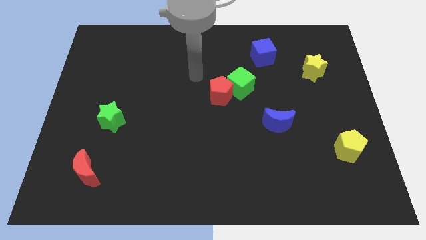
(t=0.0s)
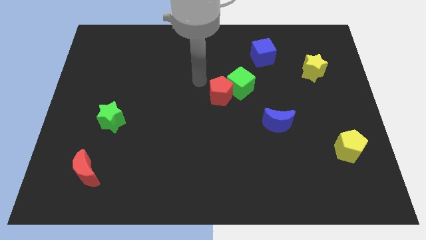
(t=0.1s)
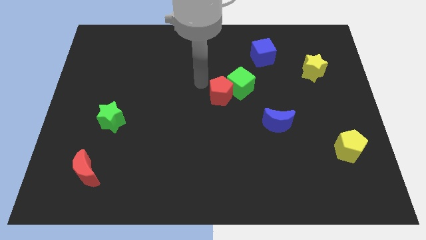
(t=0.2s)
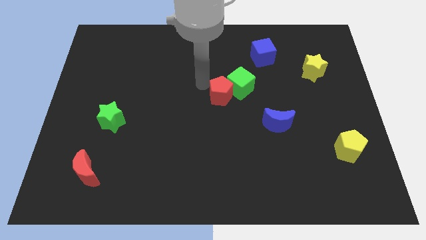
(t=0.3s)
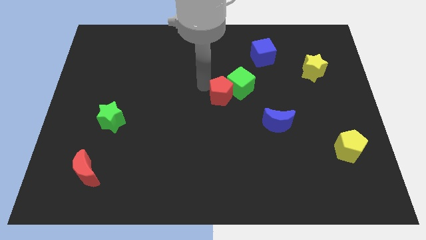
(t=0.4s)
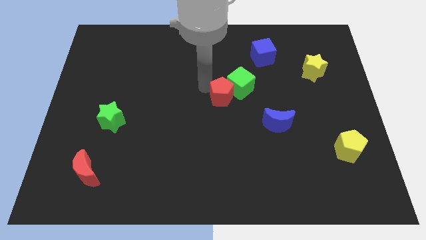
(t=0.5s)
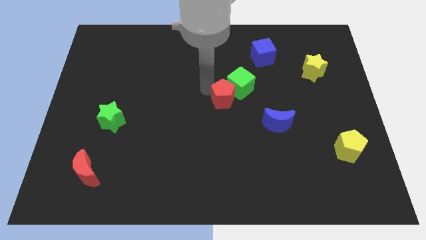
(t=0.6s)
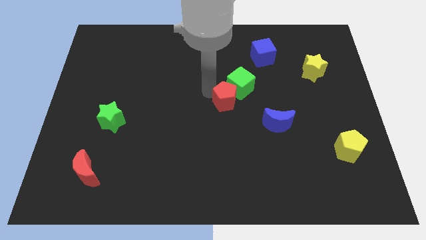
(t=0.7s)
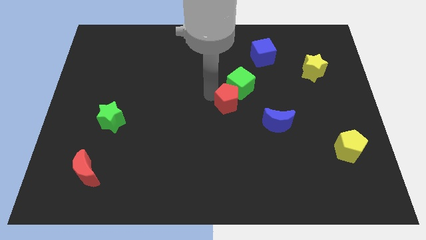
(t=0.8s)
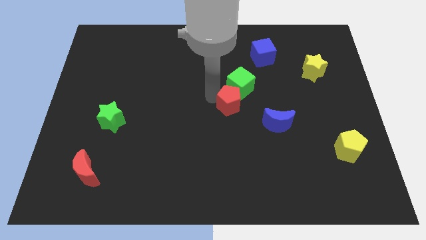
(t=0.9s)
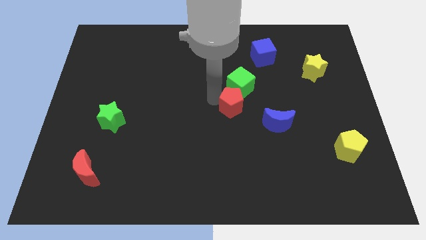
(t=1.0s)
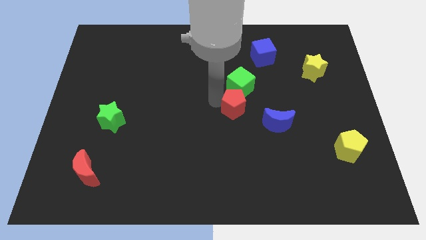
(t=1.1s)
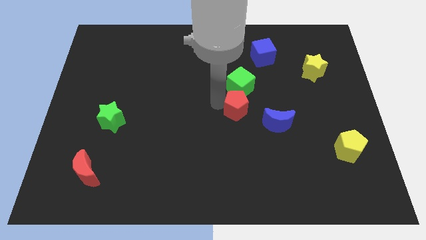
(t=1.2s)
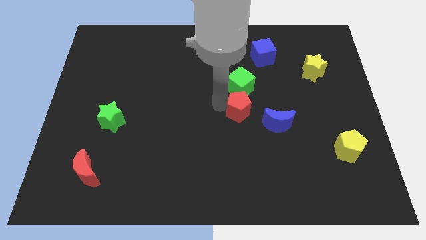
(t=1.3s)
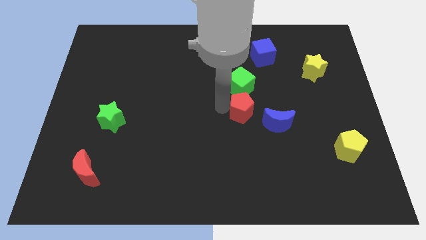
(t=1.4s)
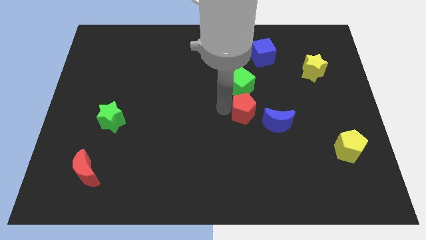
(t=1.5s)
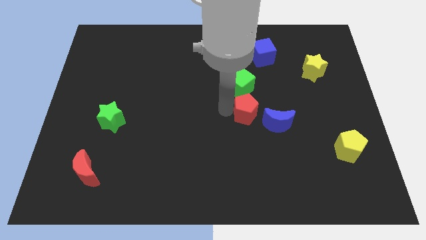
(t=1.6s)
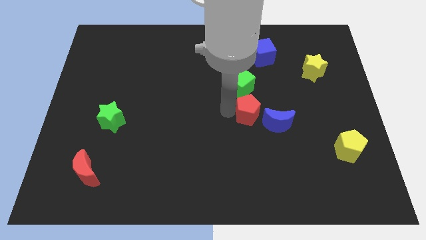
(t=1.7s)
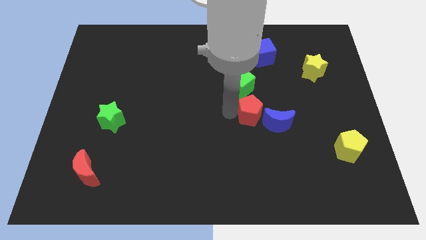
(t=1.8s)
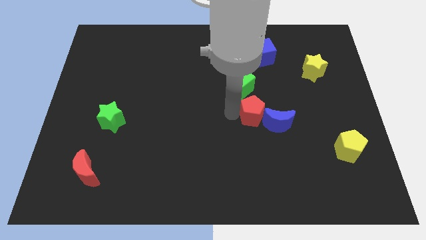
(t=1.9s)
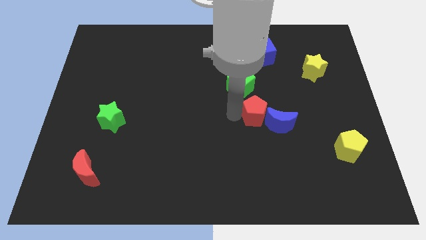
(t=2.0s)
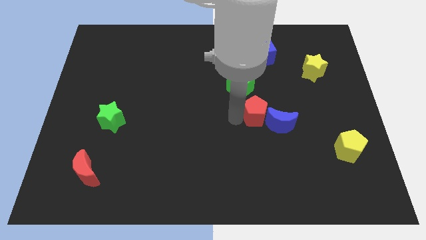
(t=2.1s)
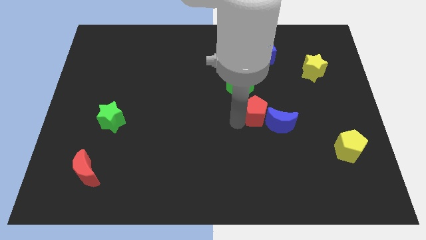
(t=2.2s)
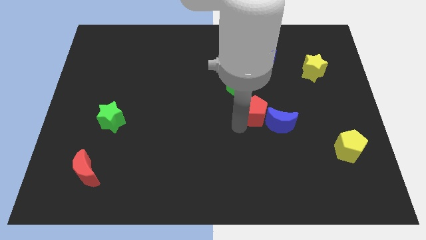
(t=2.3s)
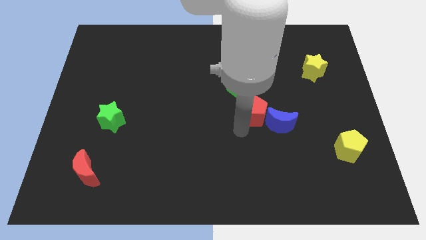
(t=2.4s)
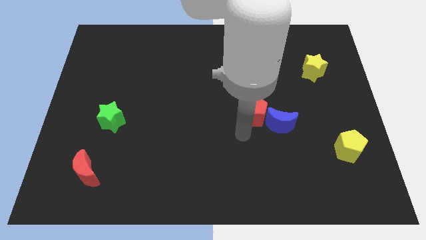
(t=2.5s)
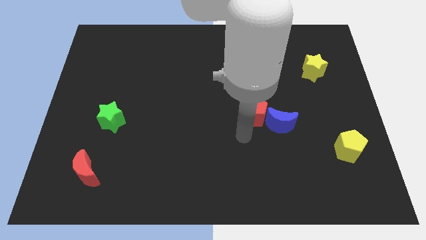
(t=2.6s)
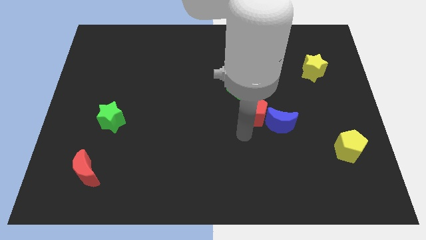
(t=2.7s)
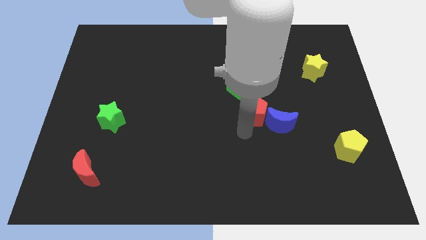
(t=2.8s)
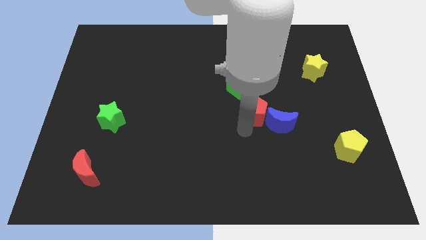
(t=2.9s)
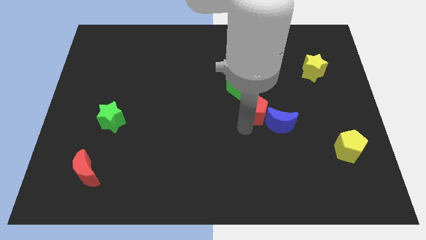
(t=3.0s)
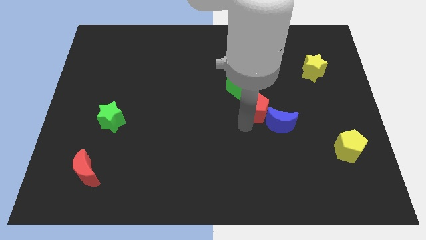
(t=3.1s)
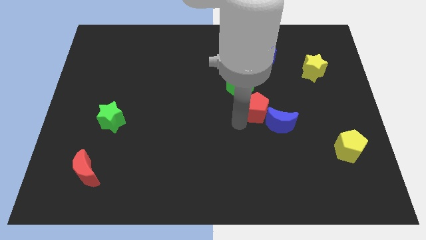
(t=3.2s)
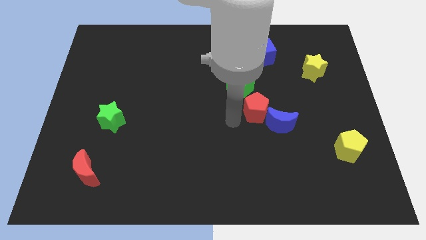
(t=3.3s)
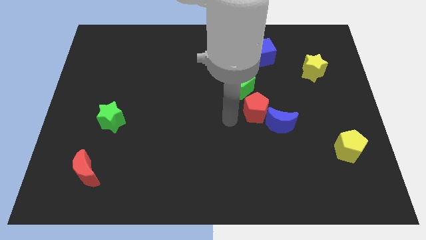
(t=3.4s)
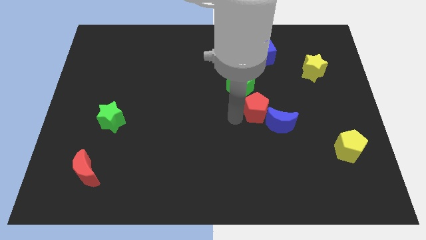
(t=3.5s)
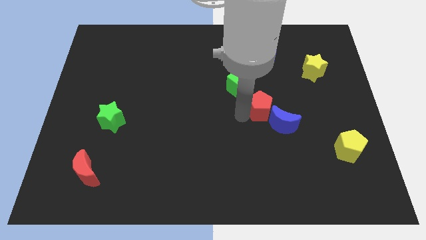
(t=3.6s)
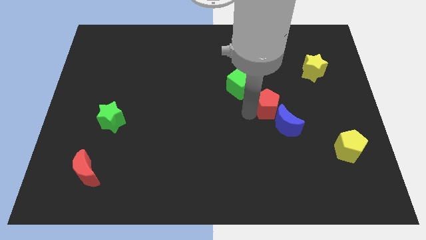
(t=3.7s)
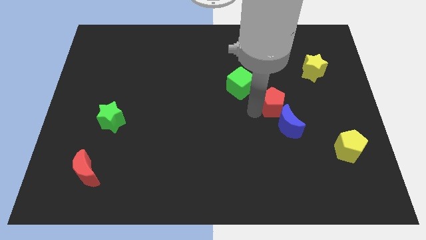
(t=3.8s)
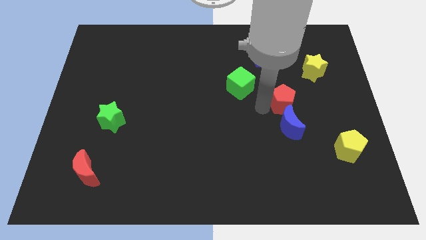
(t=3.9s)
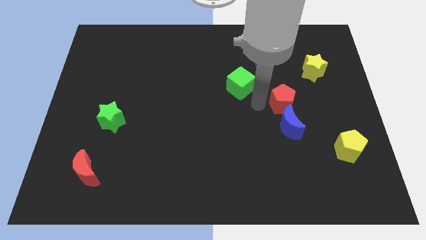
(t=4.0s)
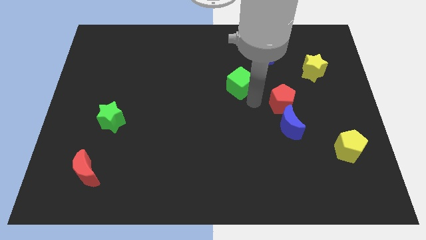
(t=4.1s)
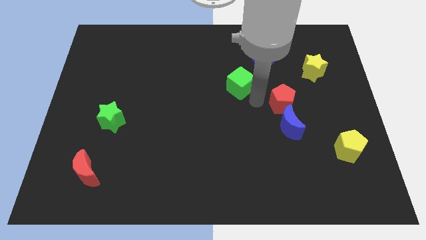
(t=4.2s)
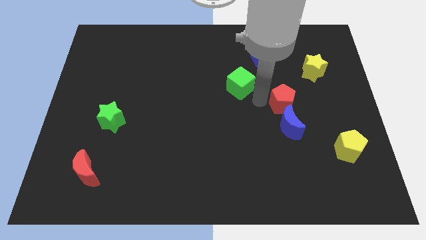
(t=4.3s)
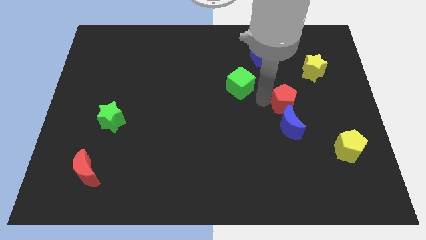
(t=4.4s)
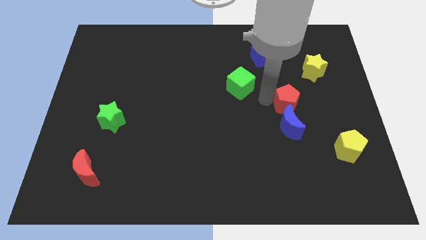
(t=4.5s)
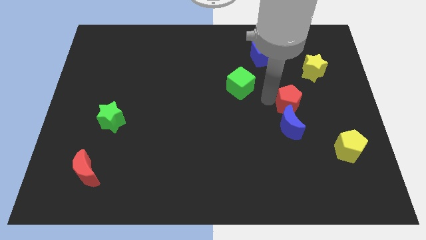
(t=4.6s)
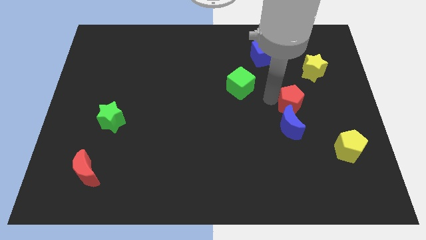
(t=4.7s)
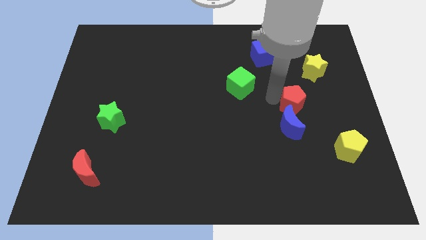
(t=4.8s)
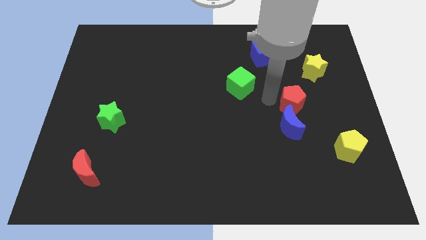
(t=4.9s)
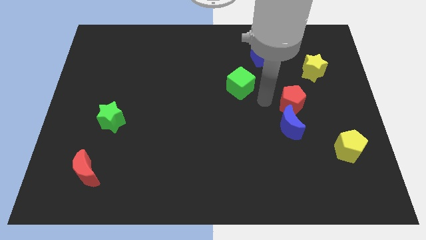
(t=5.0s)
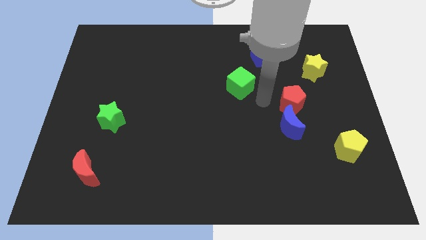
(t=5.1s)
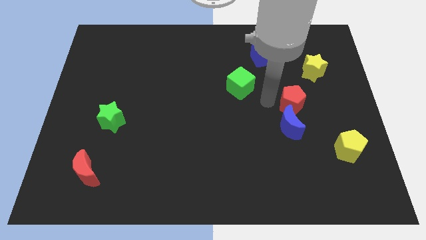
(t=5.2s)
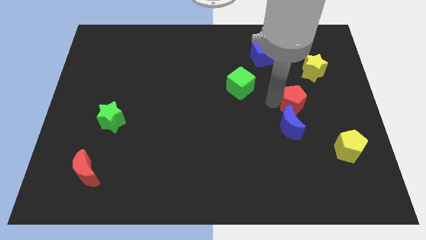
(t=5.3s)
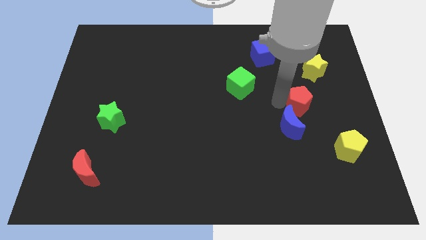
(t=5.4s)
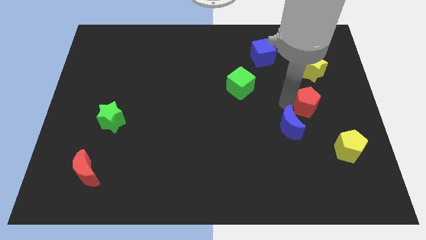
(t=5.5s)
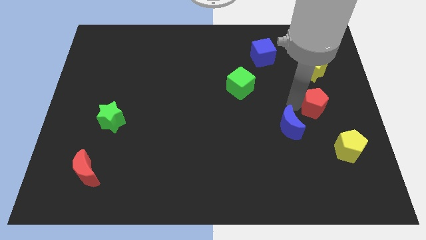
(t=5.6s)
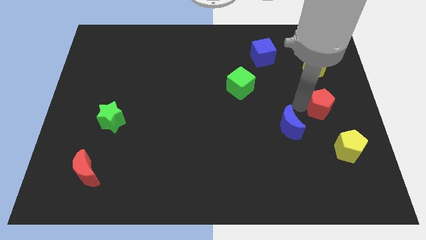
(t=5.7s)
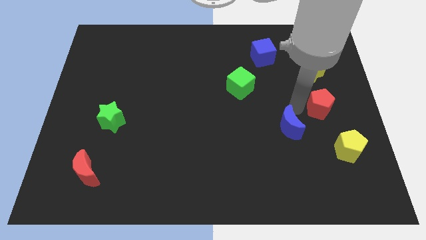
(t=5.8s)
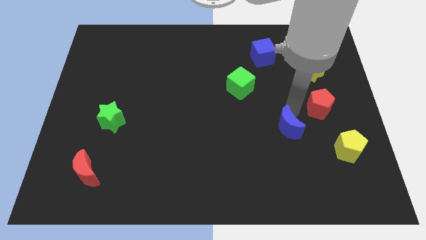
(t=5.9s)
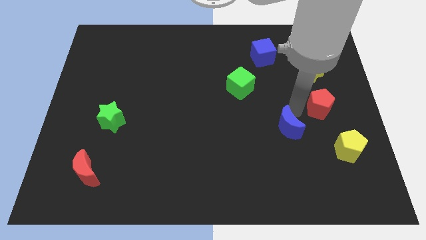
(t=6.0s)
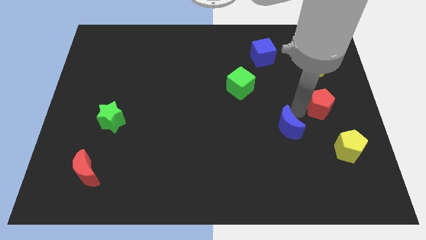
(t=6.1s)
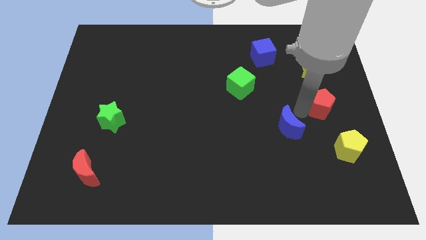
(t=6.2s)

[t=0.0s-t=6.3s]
push the red pentagon to the right side
